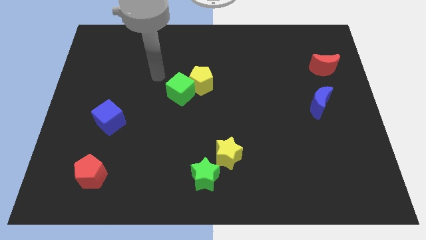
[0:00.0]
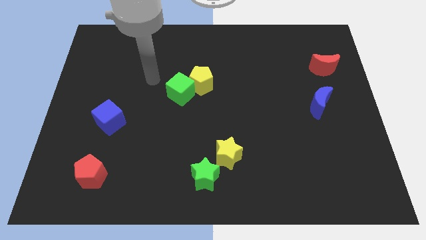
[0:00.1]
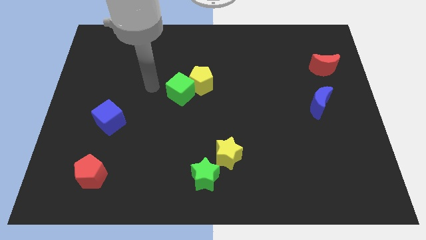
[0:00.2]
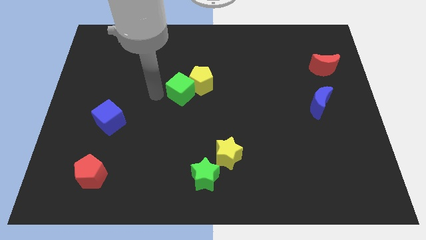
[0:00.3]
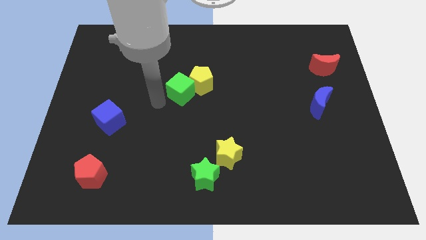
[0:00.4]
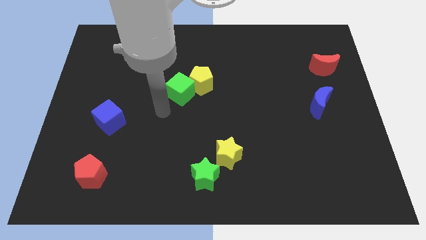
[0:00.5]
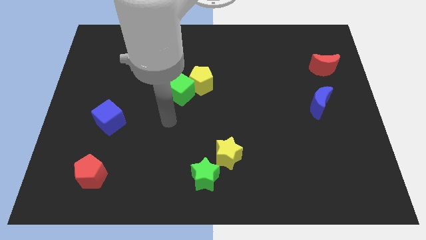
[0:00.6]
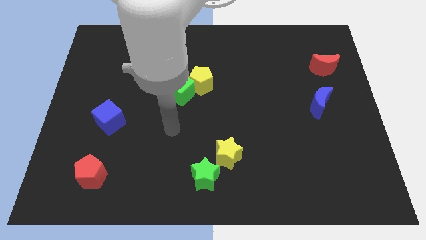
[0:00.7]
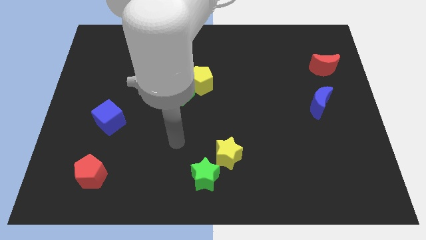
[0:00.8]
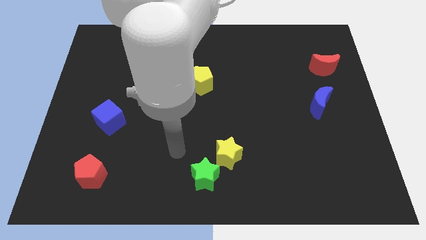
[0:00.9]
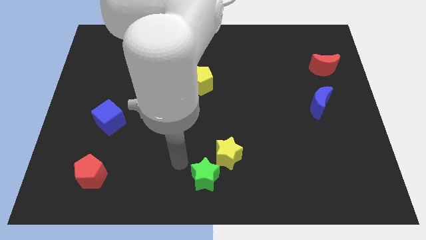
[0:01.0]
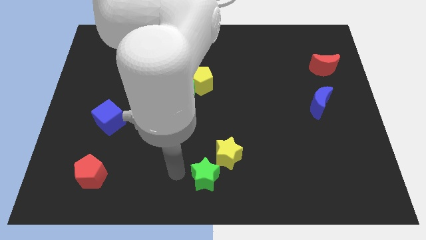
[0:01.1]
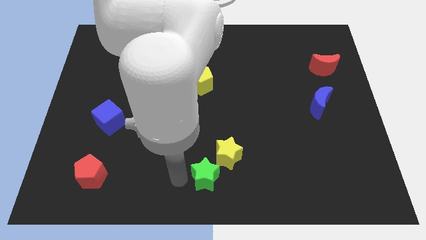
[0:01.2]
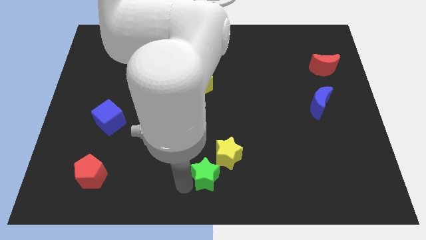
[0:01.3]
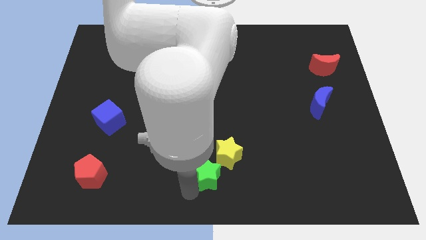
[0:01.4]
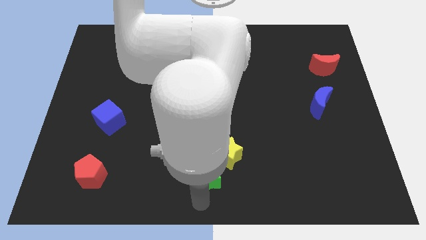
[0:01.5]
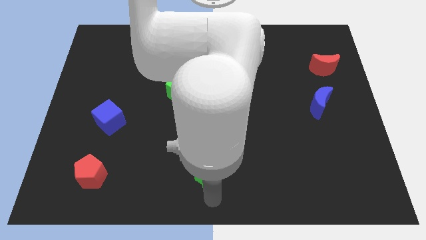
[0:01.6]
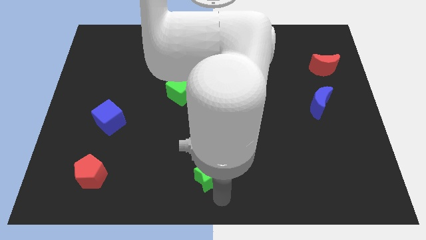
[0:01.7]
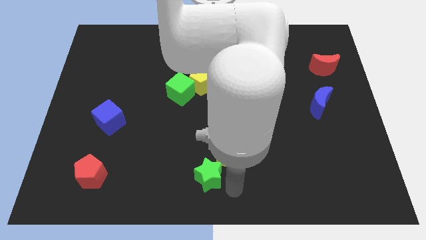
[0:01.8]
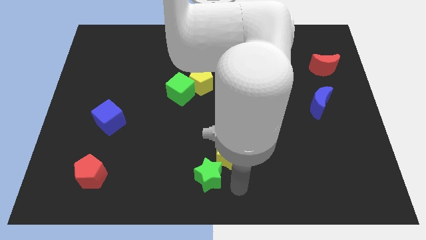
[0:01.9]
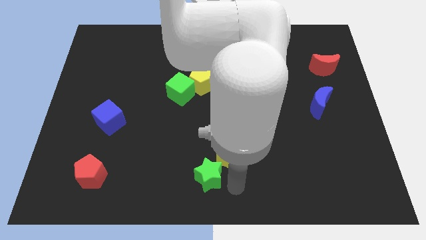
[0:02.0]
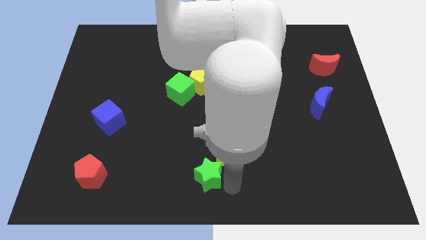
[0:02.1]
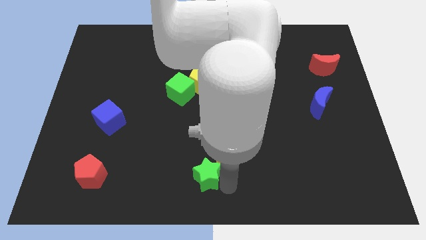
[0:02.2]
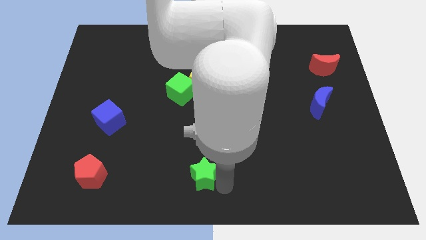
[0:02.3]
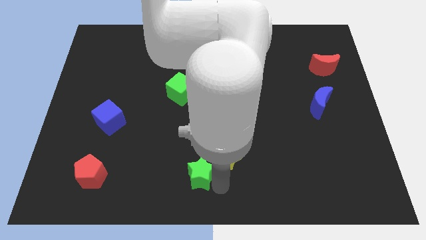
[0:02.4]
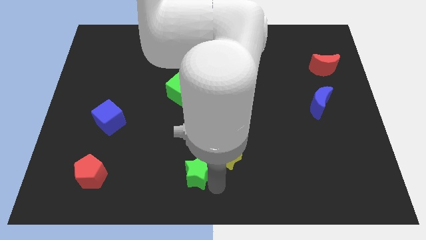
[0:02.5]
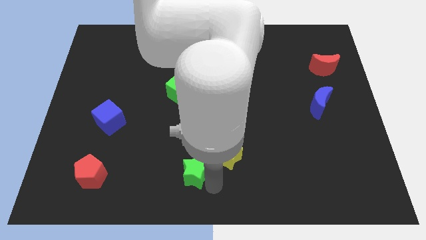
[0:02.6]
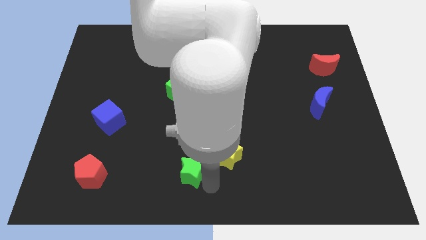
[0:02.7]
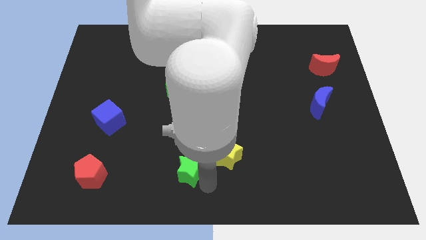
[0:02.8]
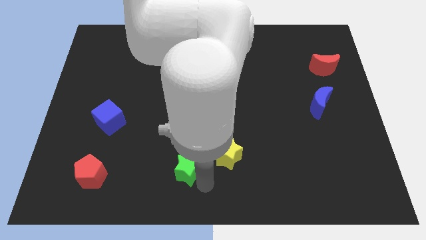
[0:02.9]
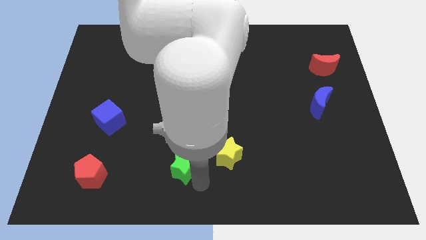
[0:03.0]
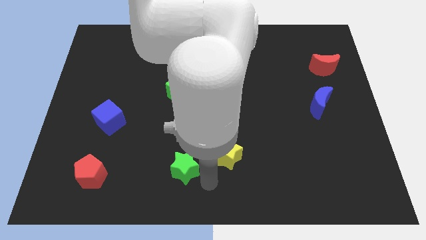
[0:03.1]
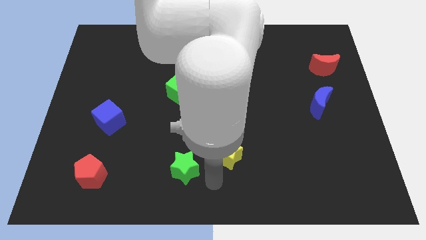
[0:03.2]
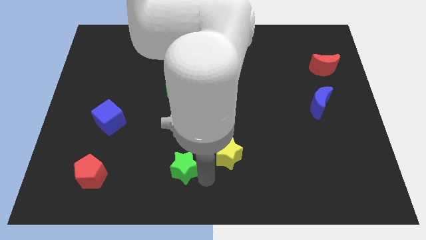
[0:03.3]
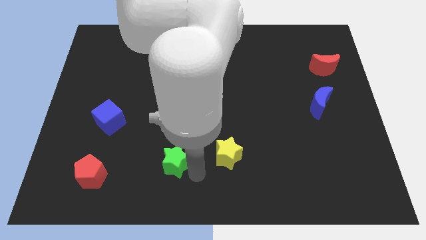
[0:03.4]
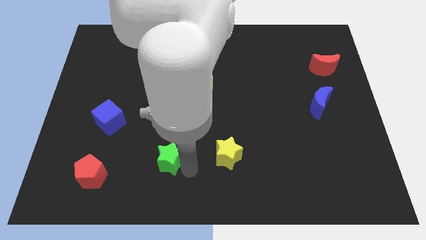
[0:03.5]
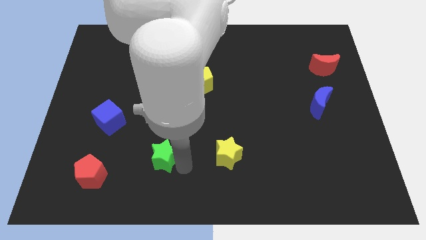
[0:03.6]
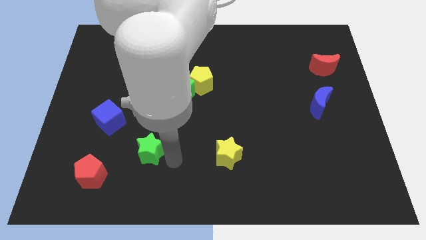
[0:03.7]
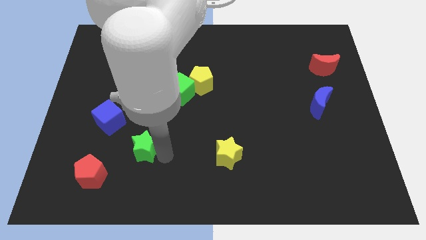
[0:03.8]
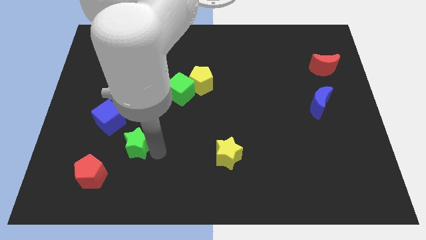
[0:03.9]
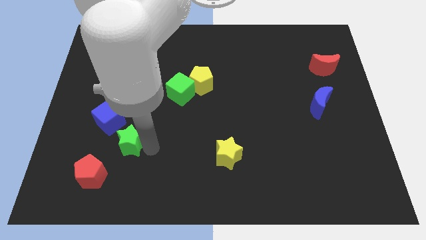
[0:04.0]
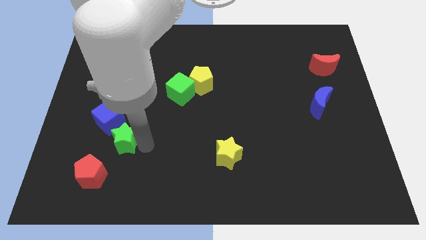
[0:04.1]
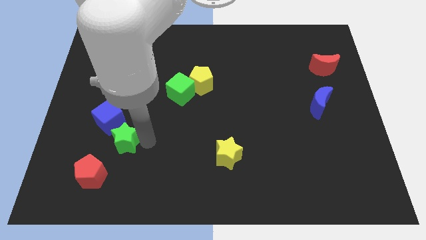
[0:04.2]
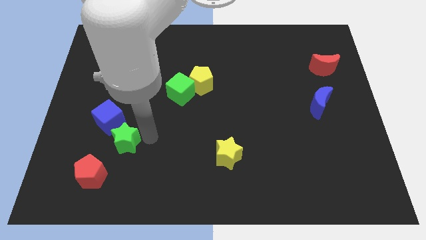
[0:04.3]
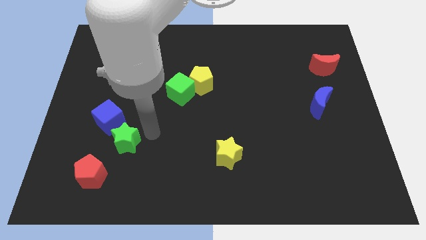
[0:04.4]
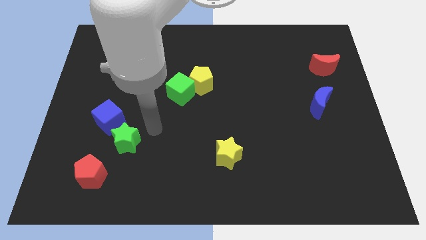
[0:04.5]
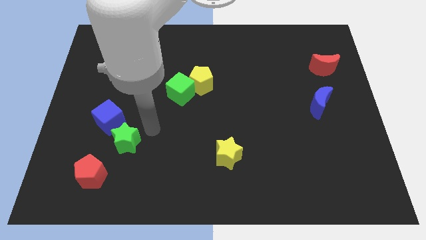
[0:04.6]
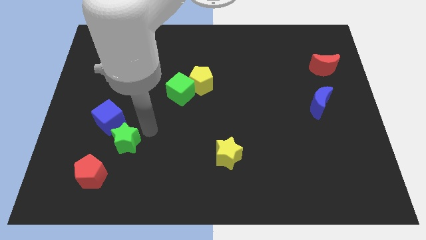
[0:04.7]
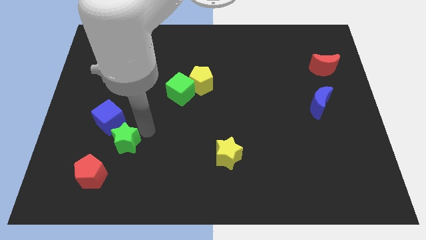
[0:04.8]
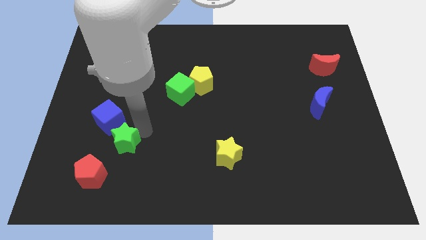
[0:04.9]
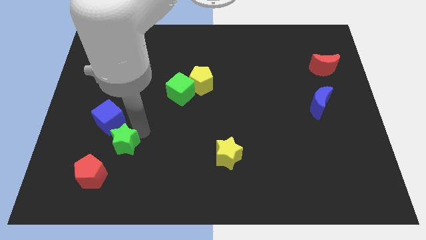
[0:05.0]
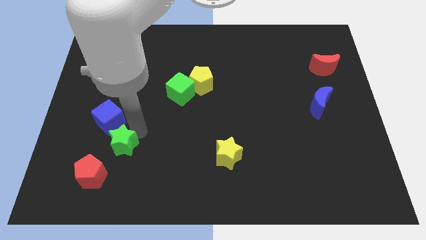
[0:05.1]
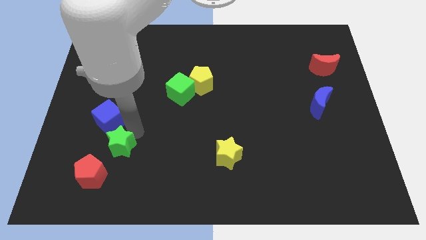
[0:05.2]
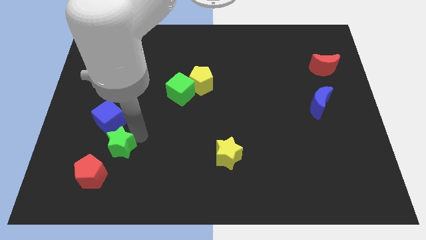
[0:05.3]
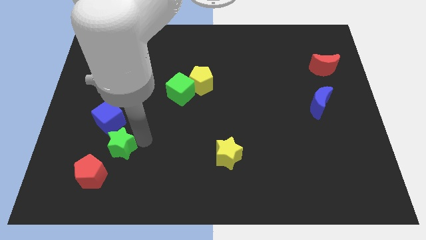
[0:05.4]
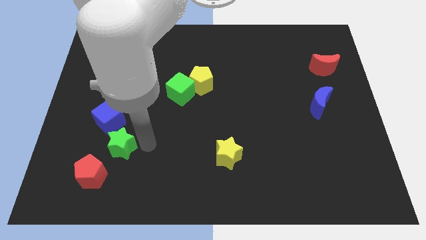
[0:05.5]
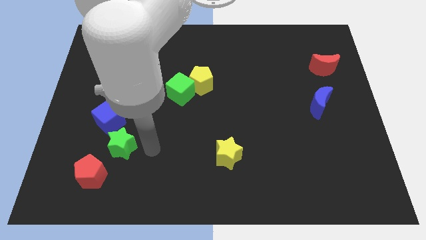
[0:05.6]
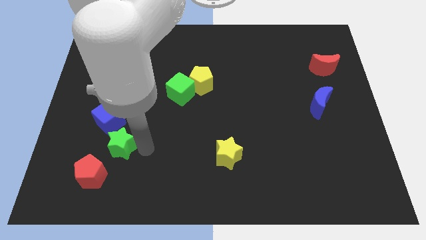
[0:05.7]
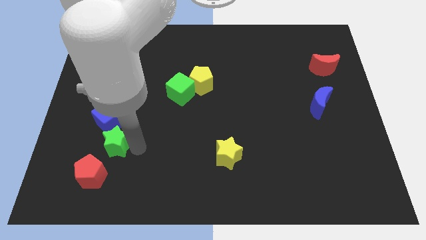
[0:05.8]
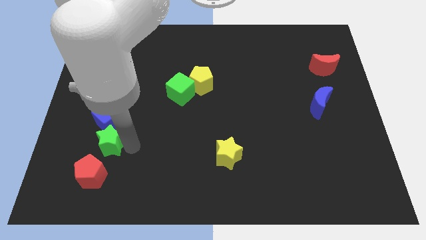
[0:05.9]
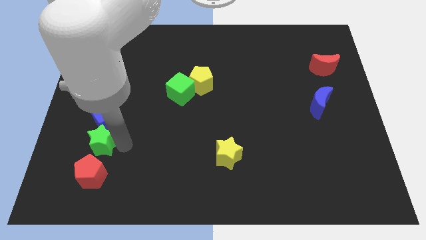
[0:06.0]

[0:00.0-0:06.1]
push the green star to the bottom left side of the blue cube

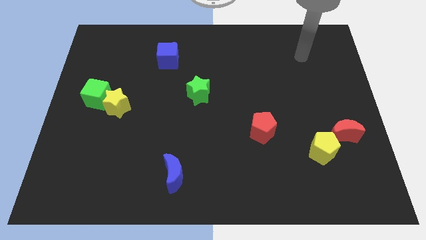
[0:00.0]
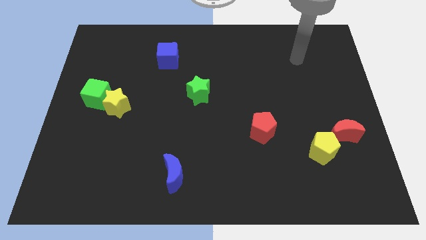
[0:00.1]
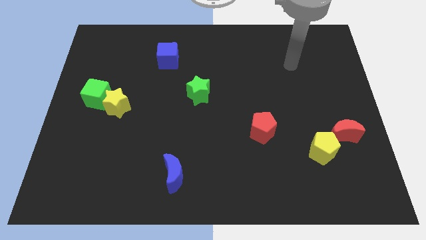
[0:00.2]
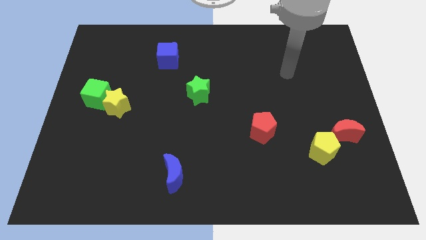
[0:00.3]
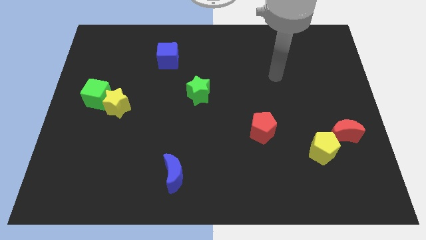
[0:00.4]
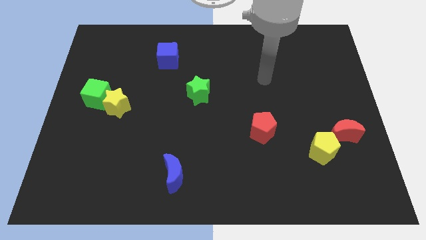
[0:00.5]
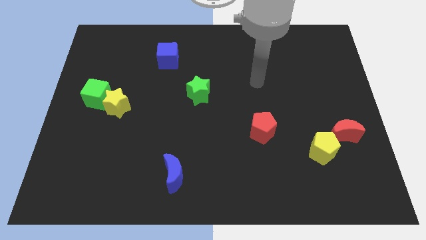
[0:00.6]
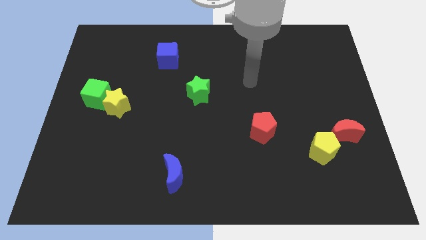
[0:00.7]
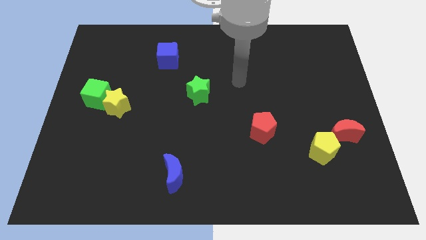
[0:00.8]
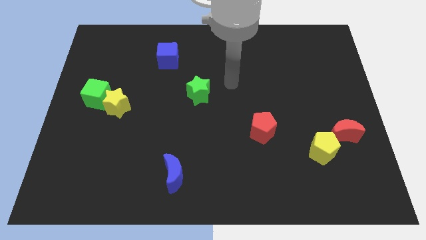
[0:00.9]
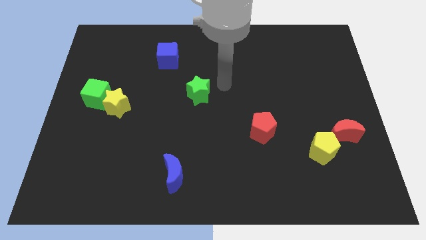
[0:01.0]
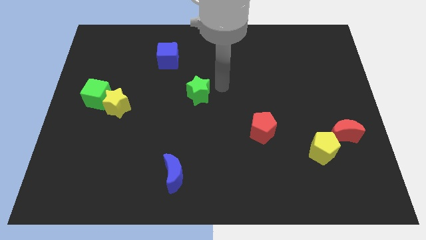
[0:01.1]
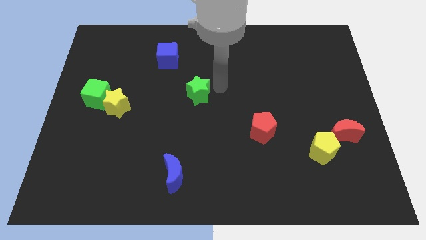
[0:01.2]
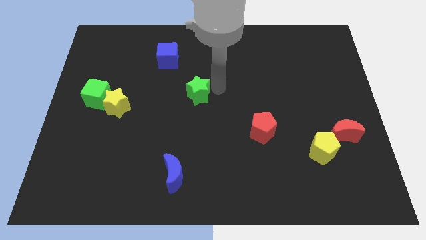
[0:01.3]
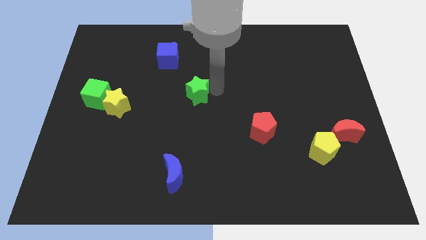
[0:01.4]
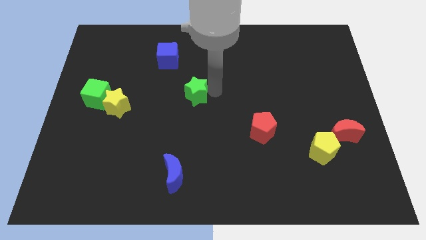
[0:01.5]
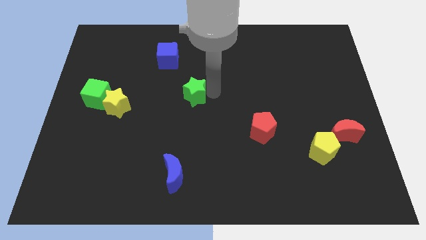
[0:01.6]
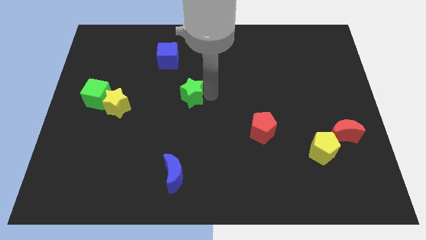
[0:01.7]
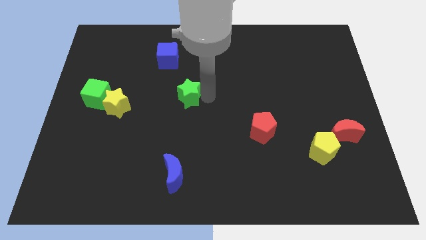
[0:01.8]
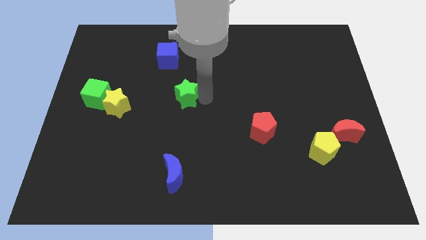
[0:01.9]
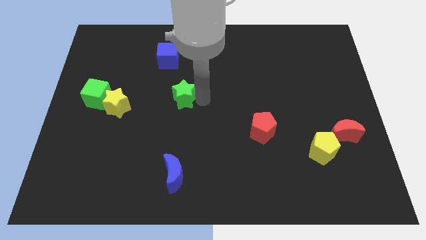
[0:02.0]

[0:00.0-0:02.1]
slide the green star to the right of the yellow star
